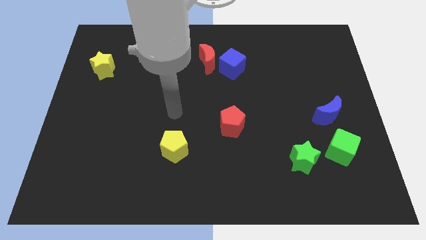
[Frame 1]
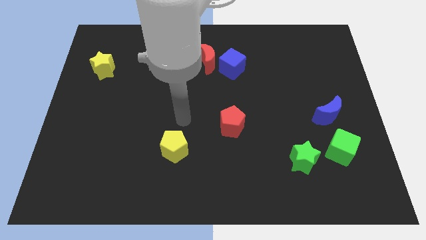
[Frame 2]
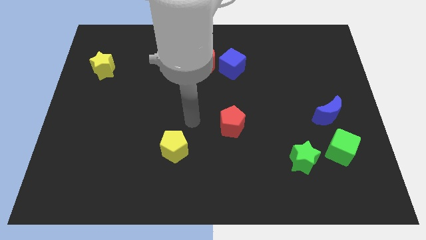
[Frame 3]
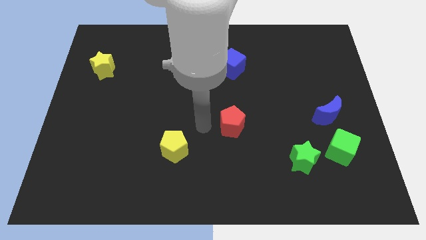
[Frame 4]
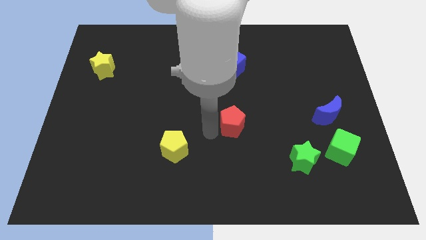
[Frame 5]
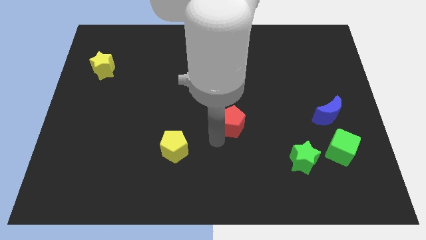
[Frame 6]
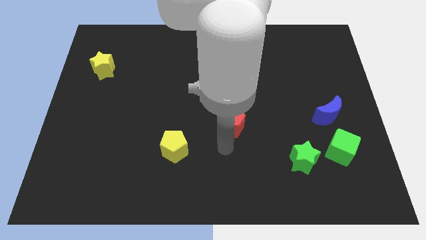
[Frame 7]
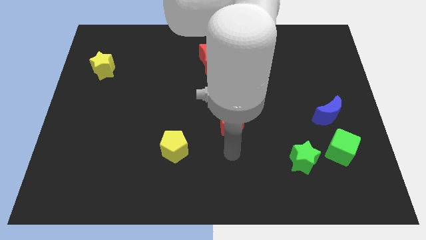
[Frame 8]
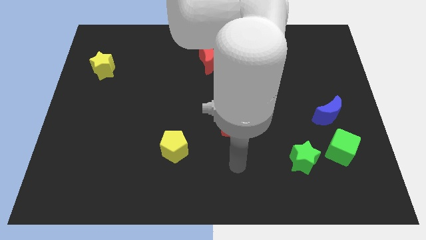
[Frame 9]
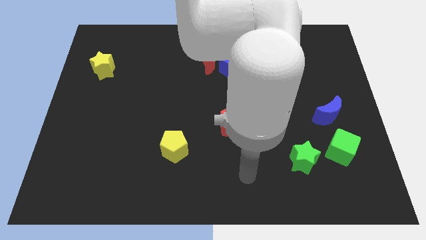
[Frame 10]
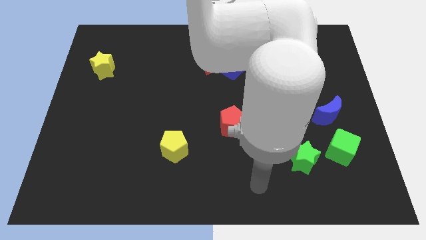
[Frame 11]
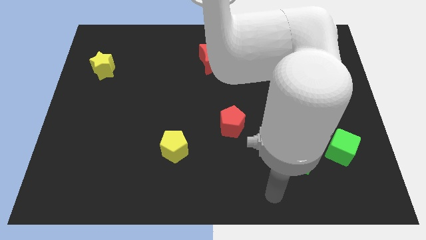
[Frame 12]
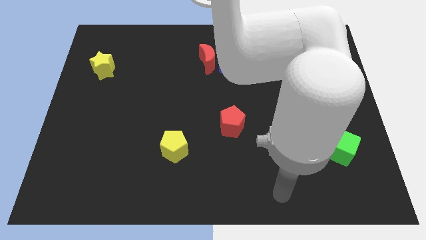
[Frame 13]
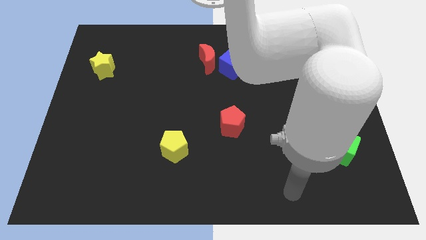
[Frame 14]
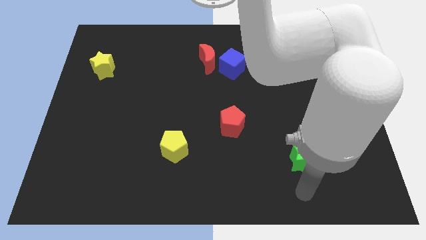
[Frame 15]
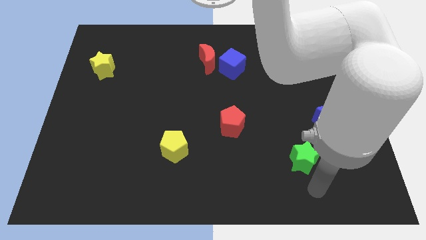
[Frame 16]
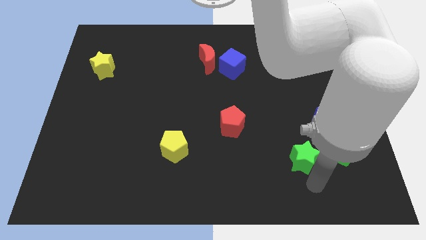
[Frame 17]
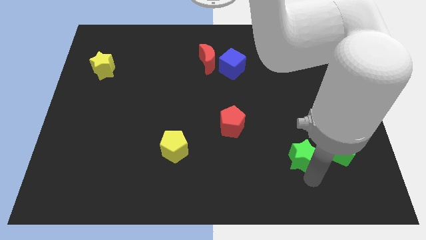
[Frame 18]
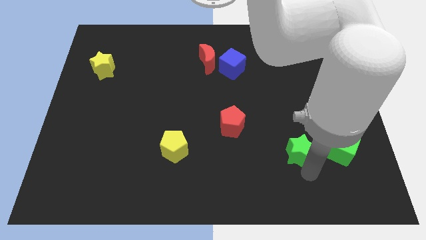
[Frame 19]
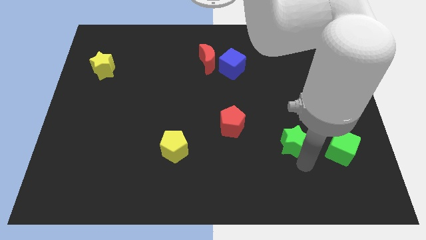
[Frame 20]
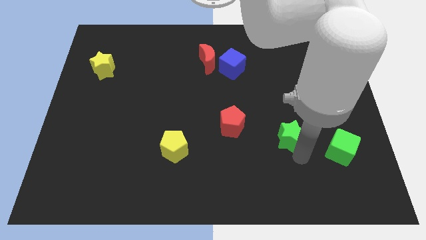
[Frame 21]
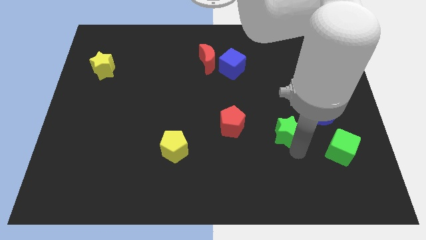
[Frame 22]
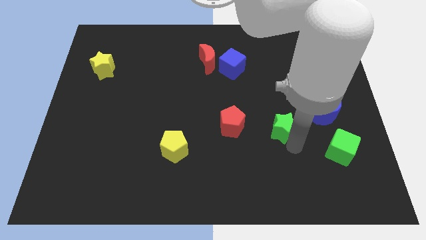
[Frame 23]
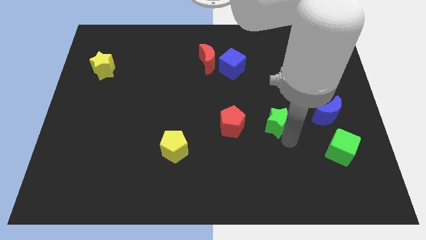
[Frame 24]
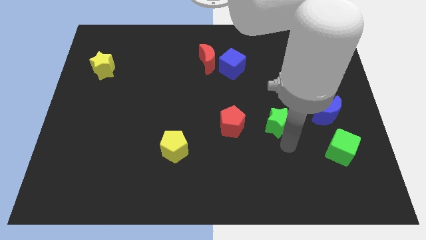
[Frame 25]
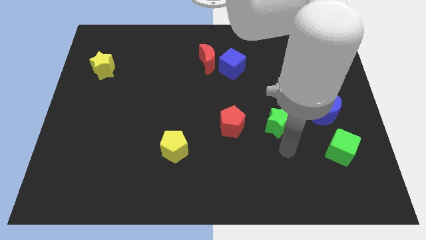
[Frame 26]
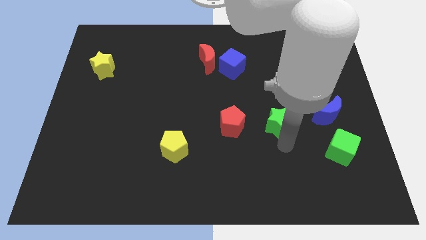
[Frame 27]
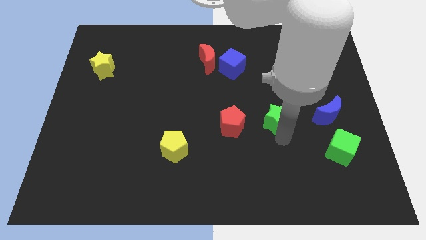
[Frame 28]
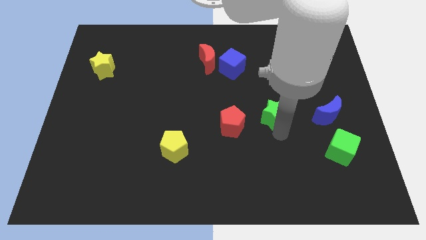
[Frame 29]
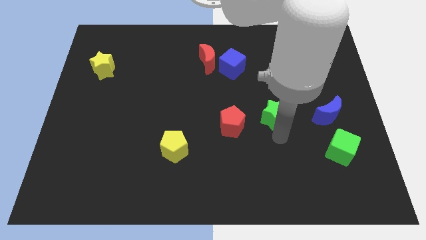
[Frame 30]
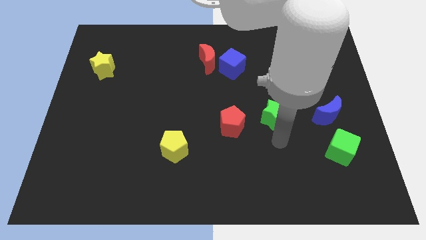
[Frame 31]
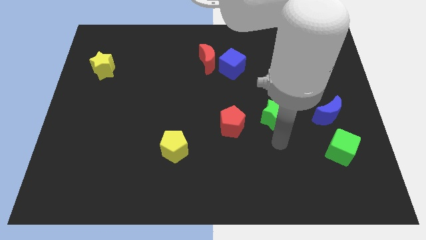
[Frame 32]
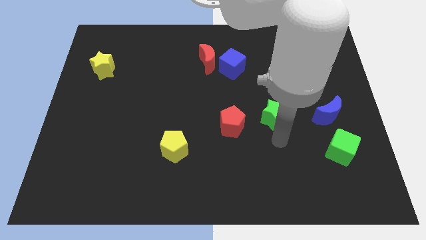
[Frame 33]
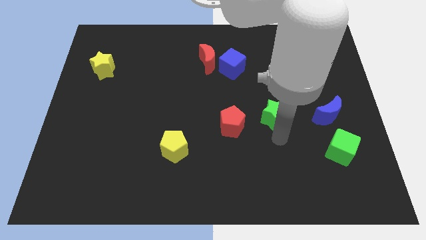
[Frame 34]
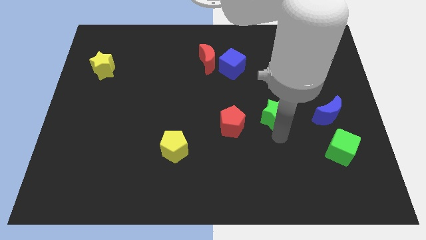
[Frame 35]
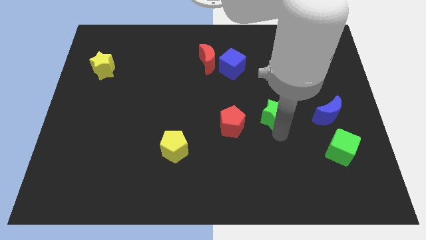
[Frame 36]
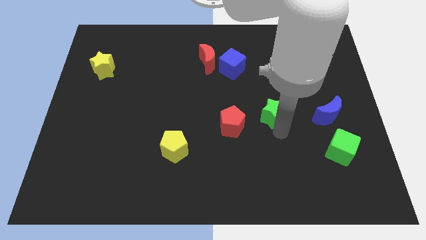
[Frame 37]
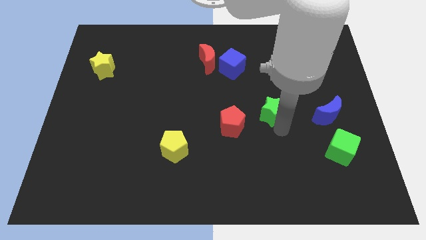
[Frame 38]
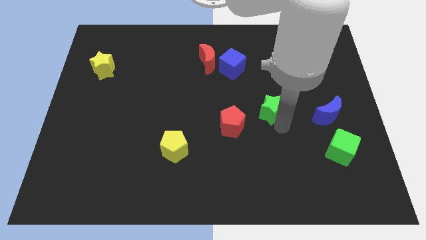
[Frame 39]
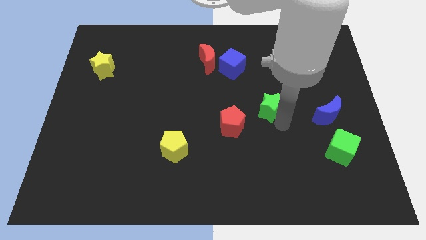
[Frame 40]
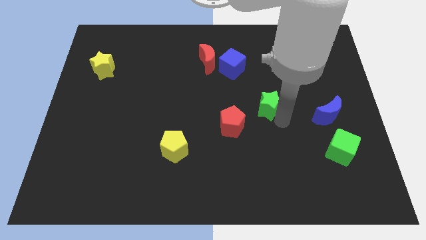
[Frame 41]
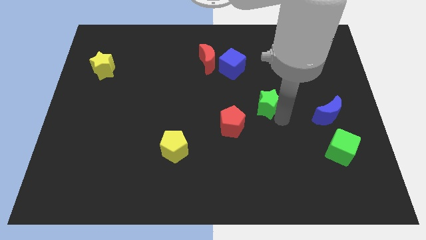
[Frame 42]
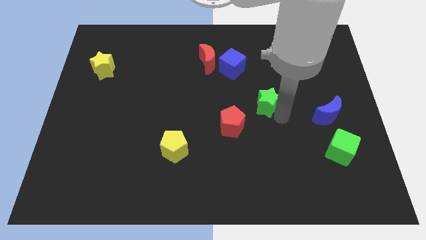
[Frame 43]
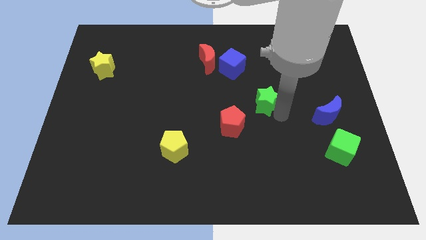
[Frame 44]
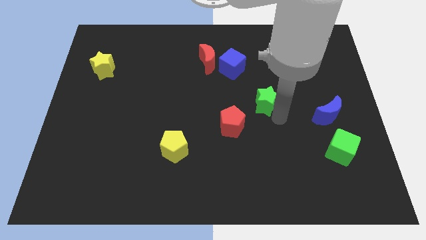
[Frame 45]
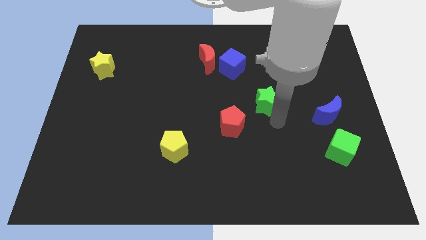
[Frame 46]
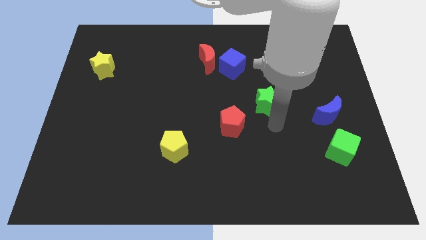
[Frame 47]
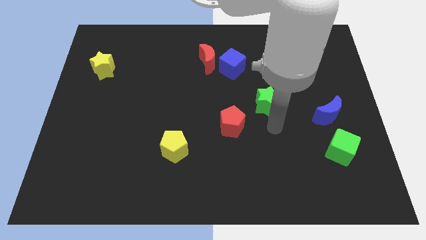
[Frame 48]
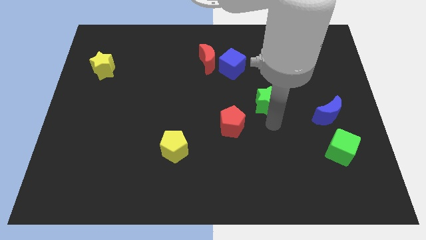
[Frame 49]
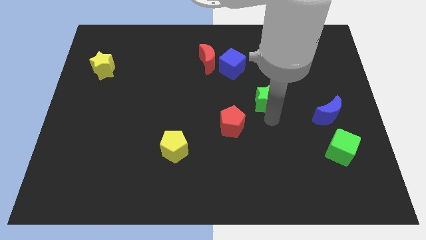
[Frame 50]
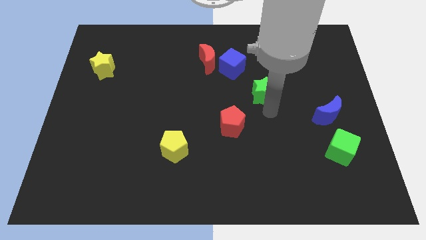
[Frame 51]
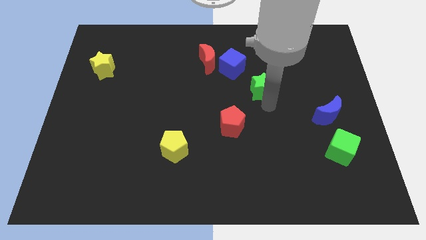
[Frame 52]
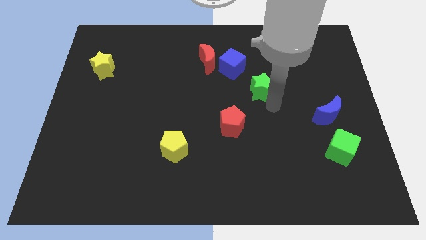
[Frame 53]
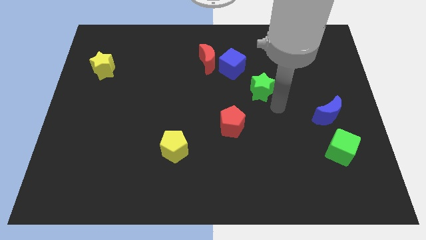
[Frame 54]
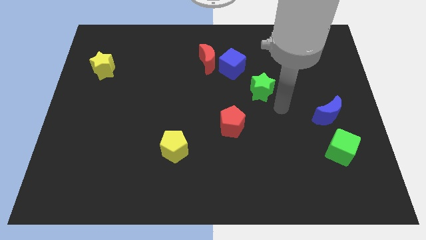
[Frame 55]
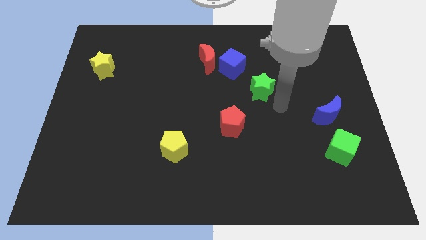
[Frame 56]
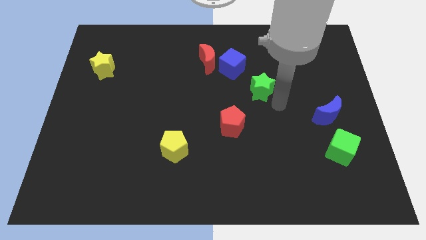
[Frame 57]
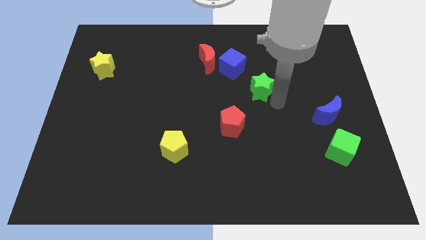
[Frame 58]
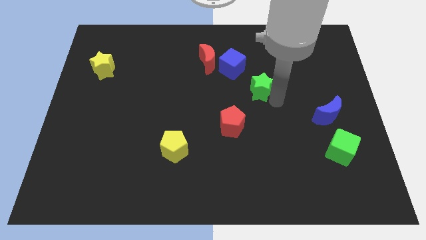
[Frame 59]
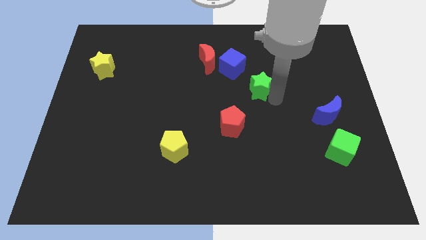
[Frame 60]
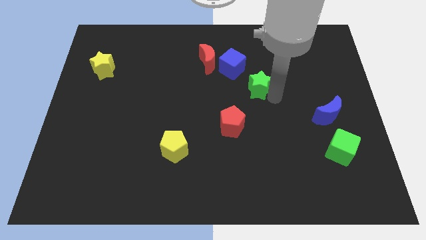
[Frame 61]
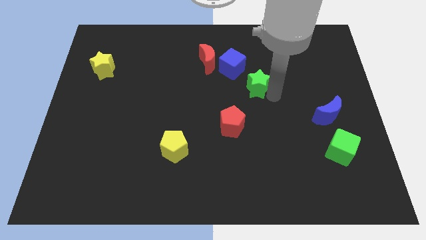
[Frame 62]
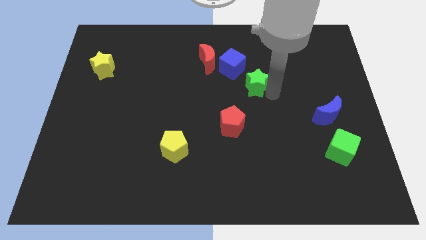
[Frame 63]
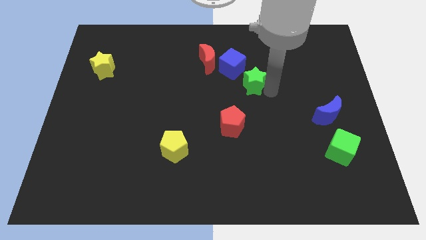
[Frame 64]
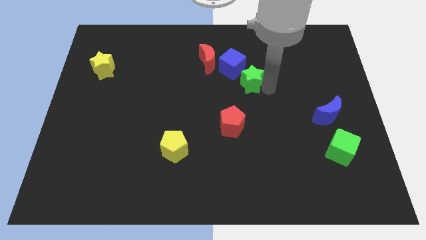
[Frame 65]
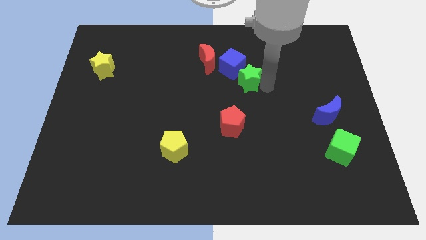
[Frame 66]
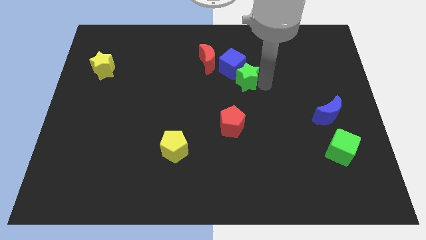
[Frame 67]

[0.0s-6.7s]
push the green star towards the blue cube
